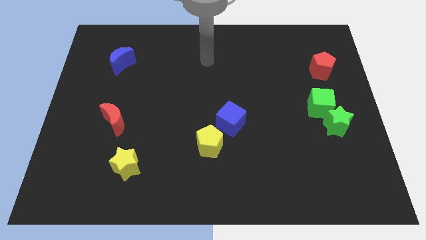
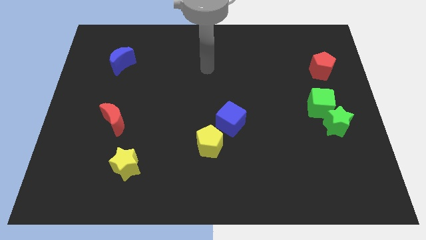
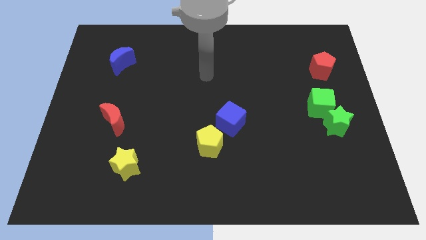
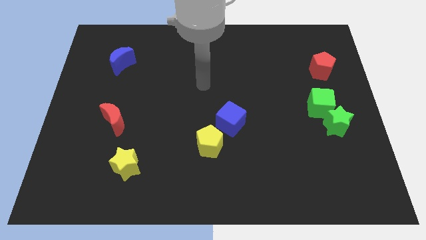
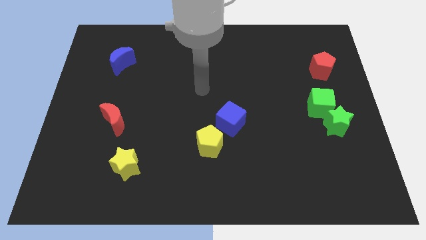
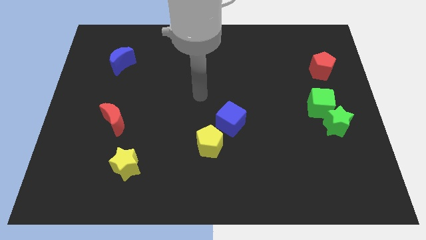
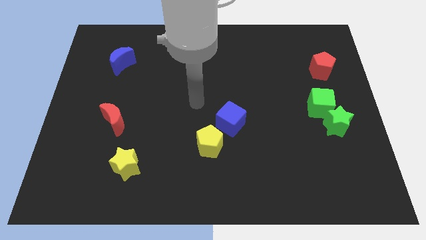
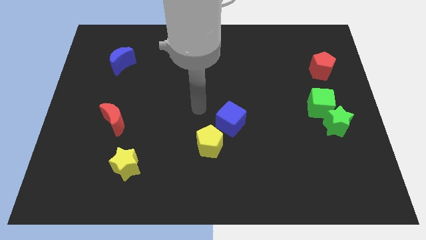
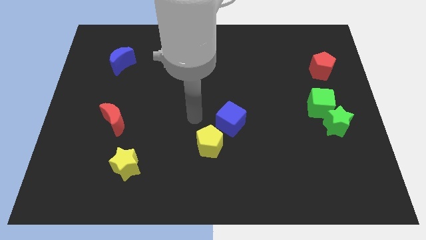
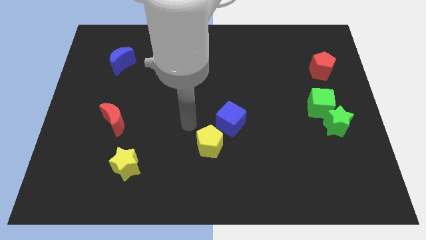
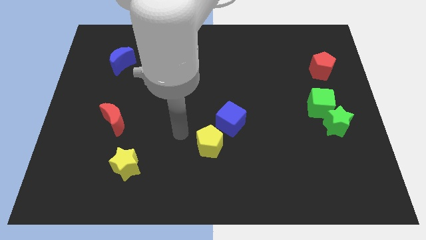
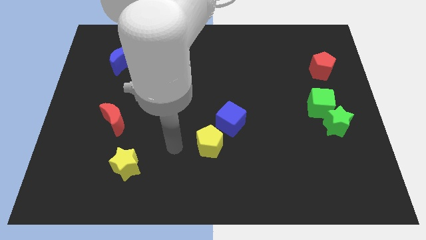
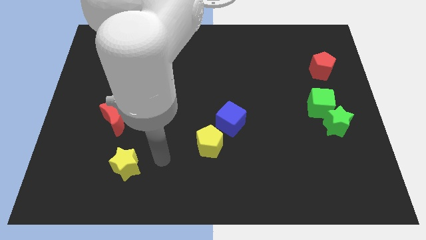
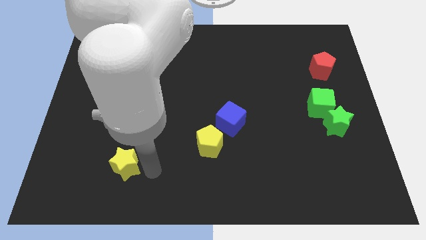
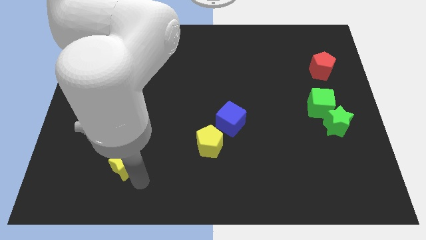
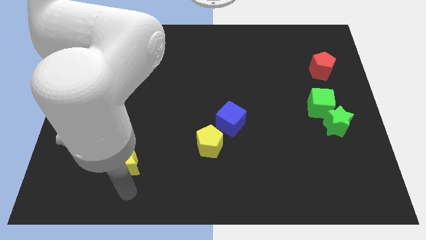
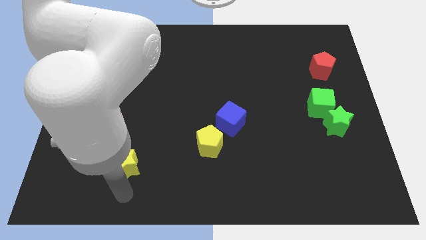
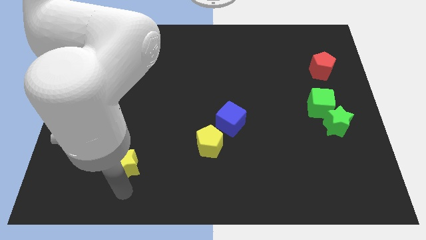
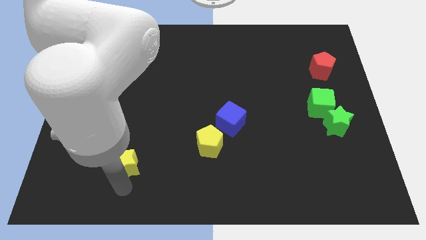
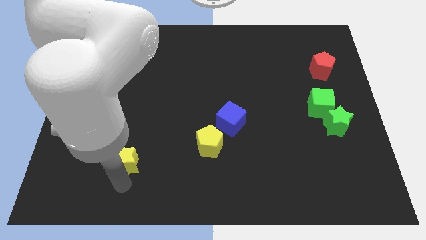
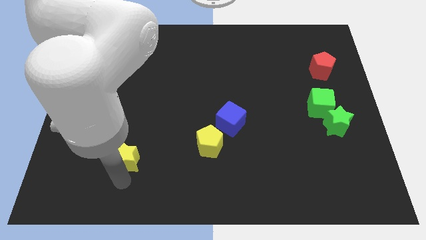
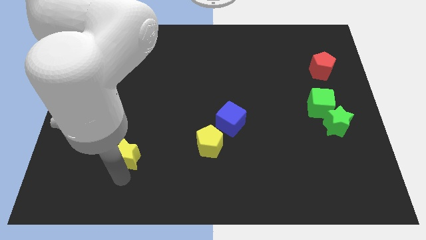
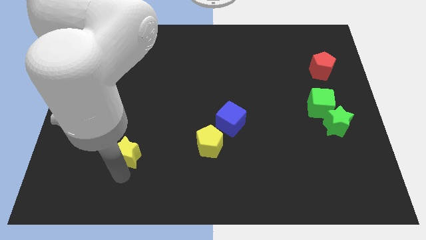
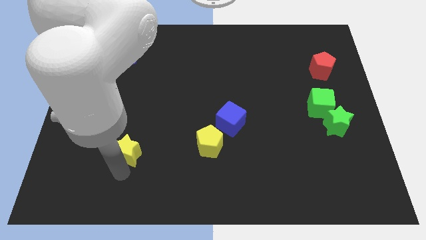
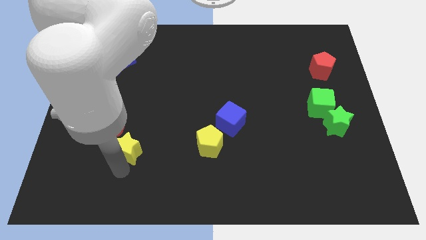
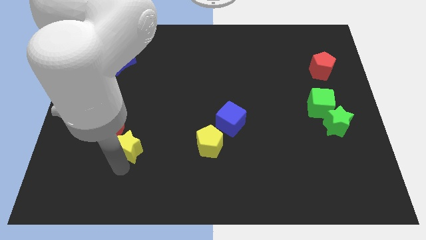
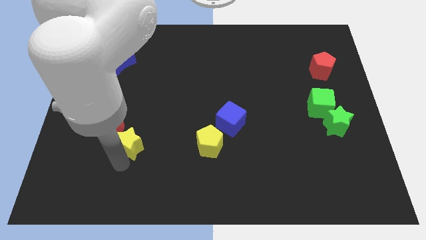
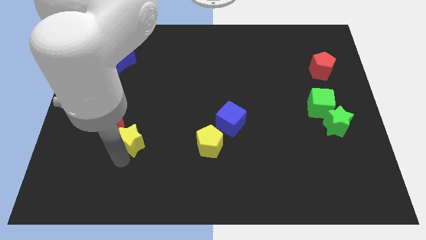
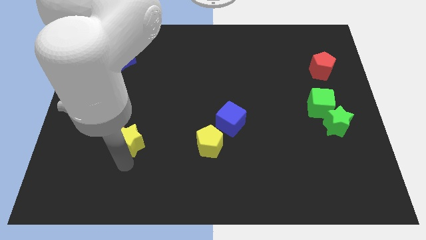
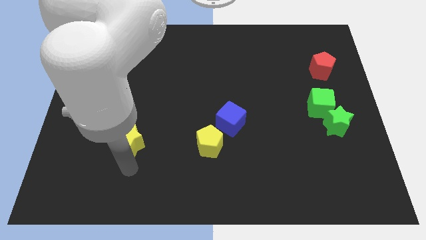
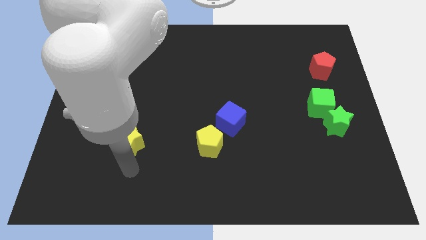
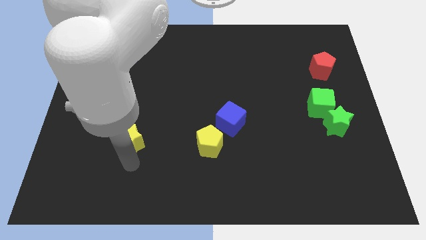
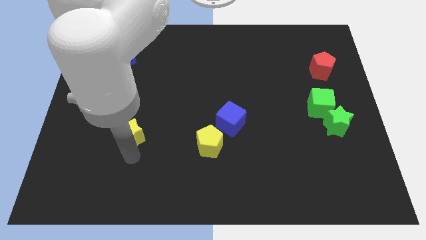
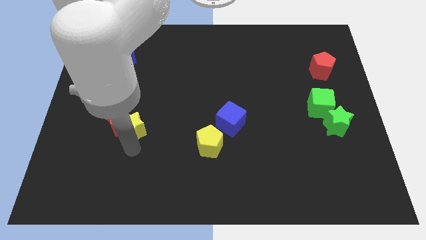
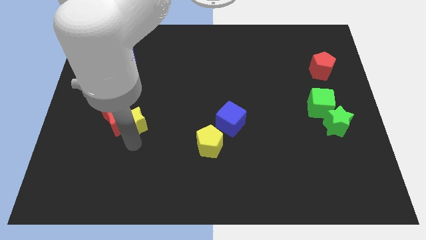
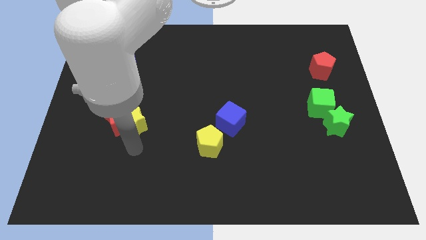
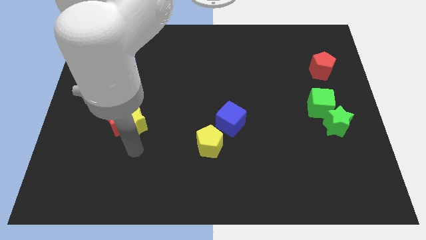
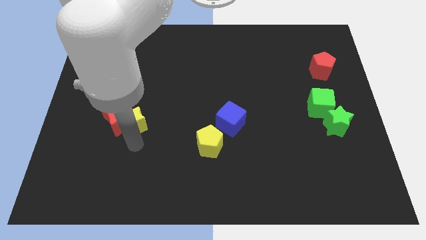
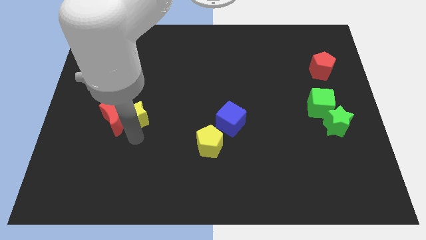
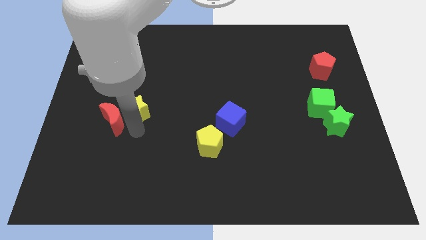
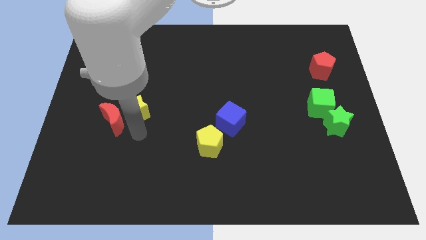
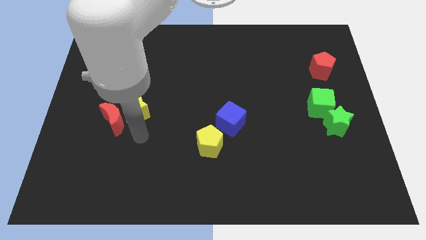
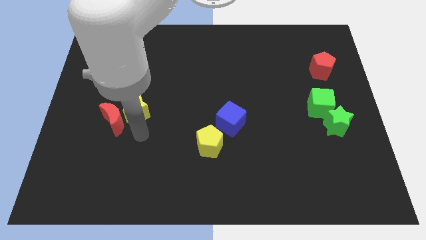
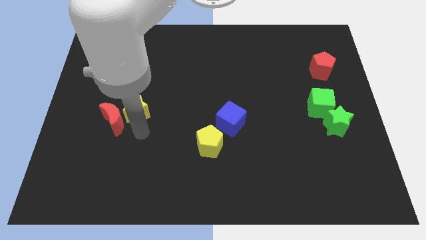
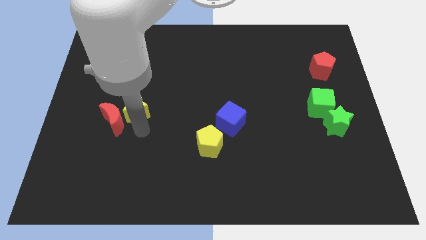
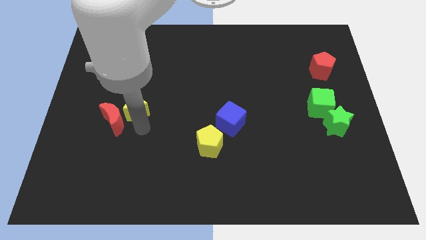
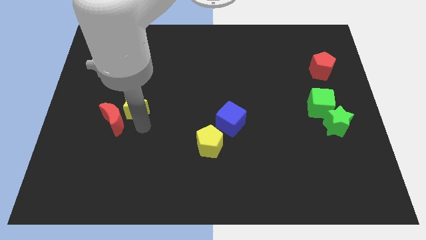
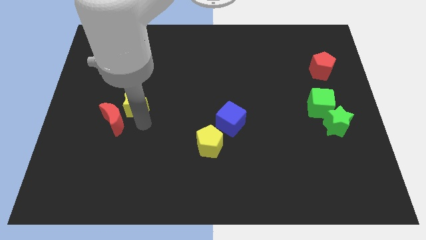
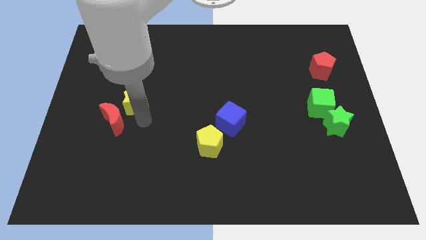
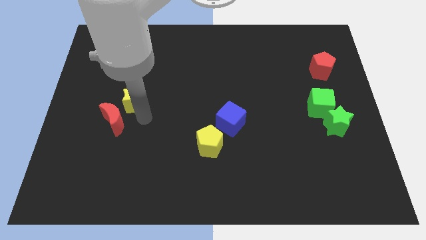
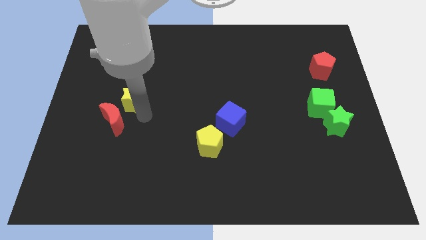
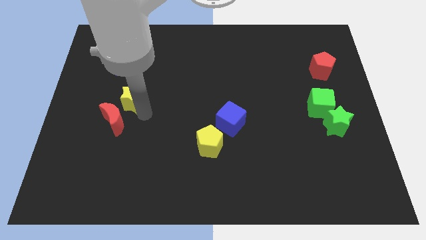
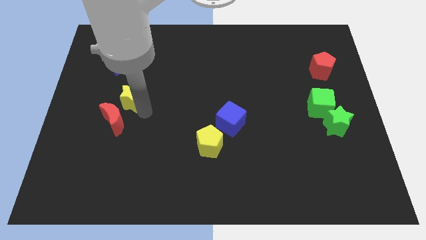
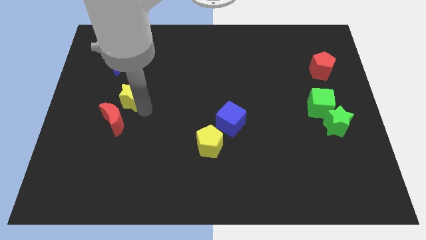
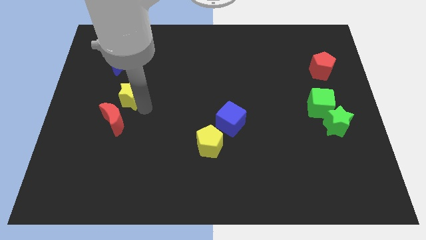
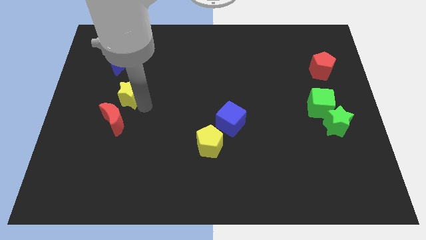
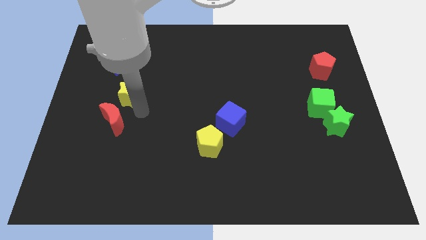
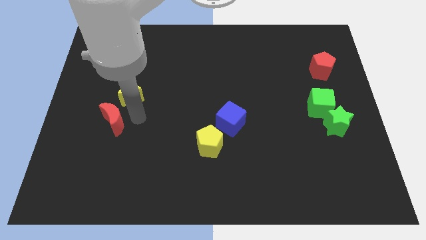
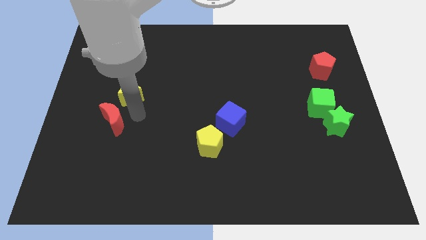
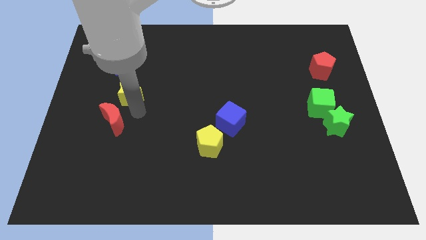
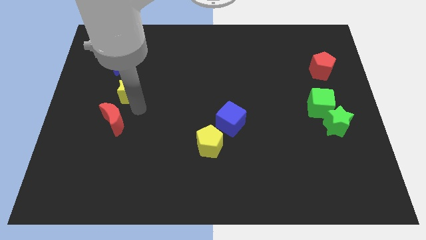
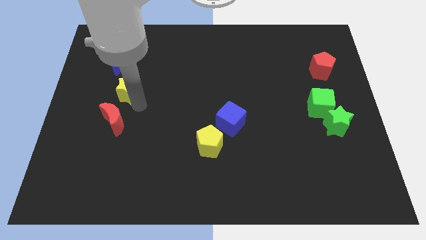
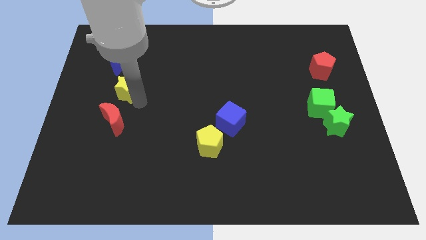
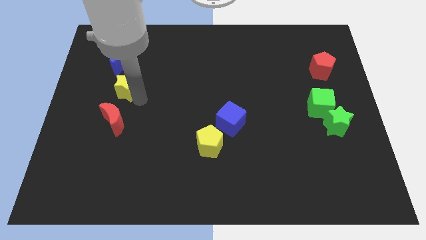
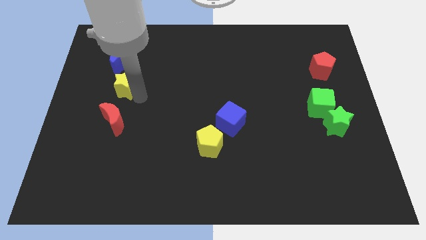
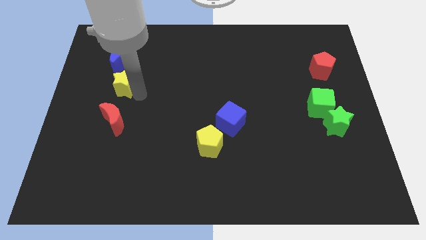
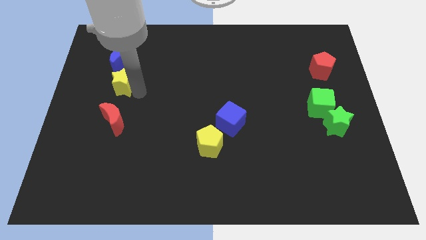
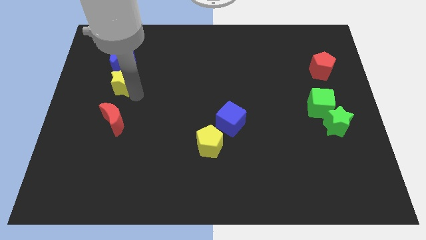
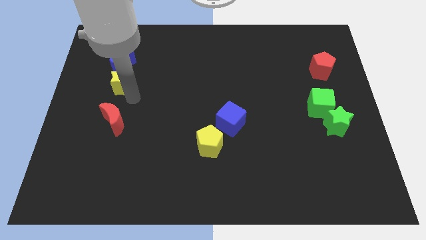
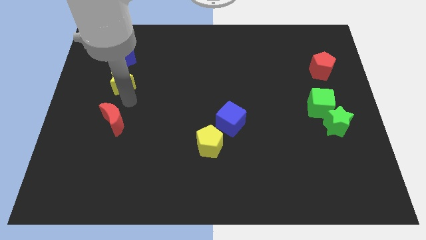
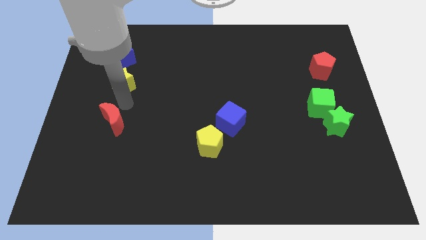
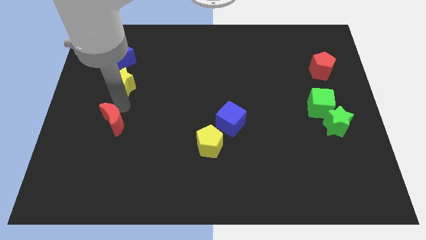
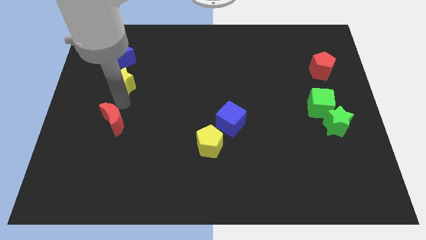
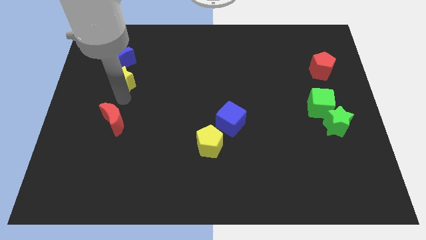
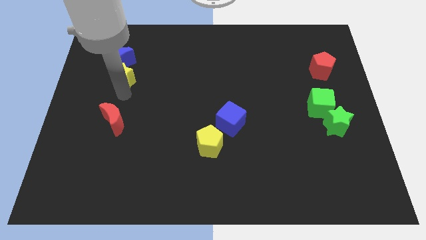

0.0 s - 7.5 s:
push the yellow star to the blue moon
